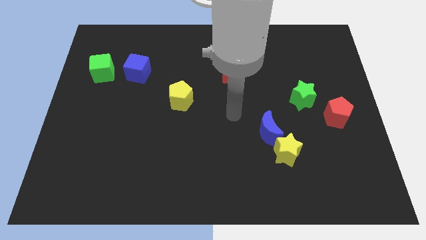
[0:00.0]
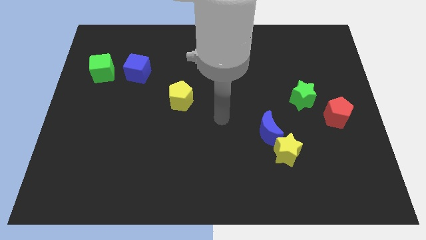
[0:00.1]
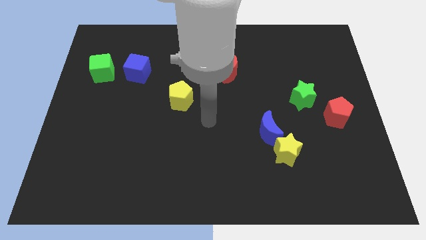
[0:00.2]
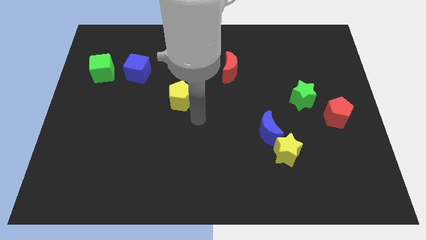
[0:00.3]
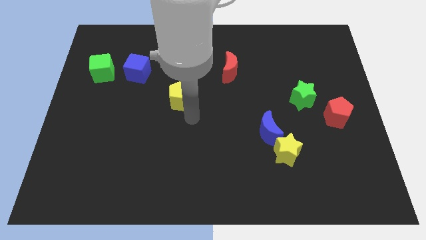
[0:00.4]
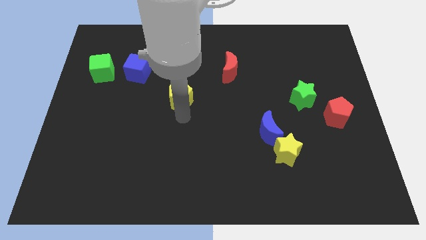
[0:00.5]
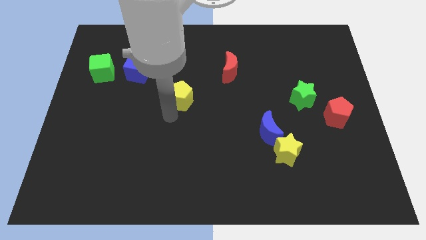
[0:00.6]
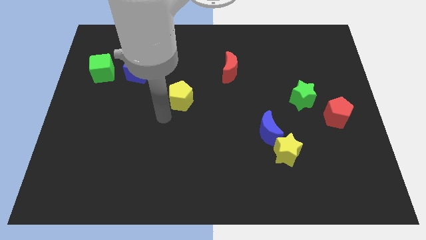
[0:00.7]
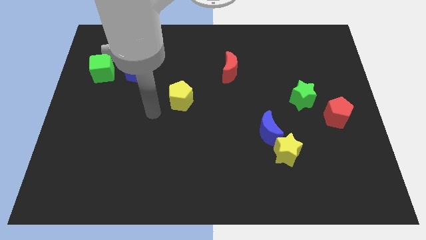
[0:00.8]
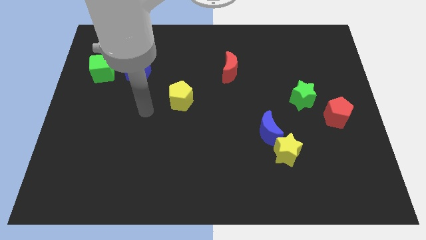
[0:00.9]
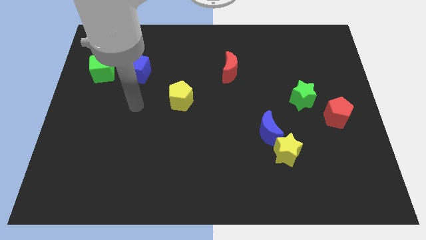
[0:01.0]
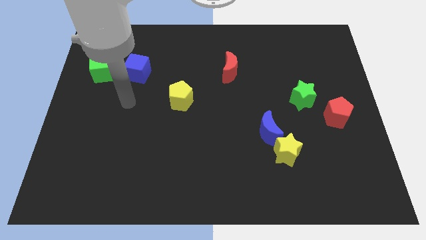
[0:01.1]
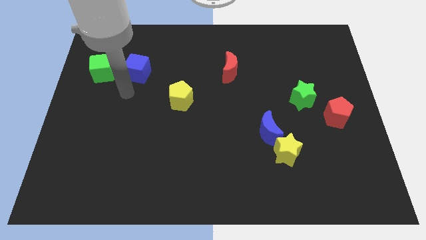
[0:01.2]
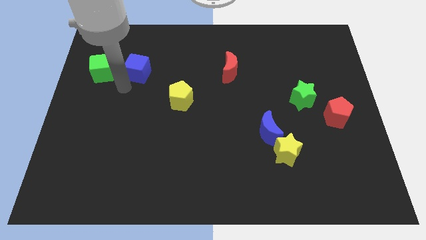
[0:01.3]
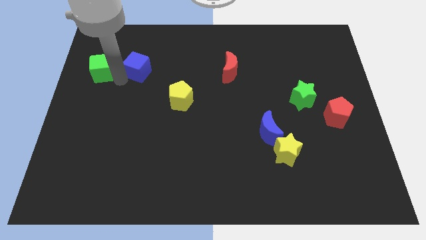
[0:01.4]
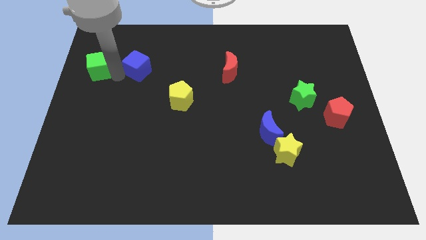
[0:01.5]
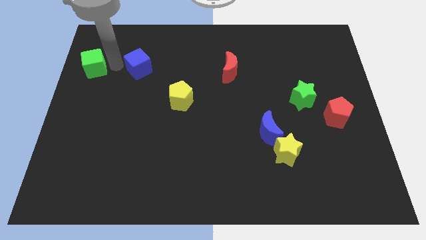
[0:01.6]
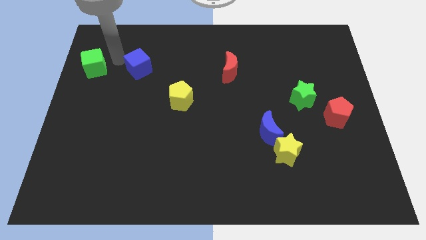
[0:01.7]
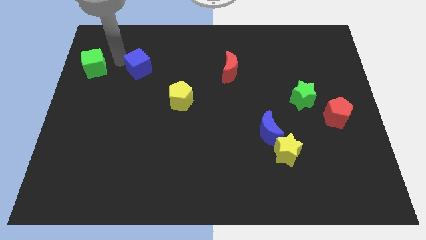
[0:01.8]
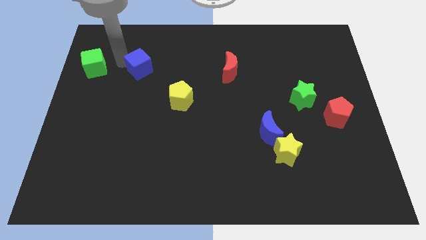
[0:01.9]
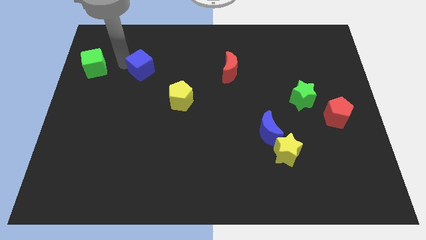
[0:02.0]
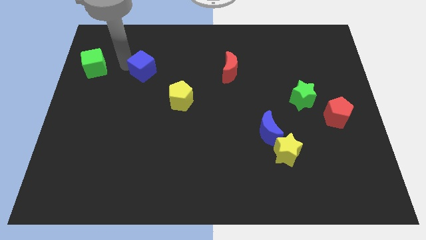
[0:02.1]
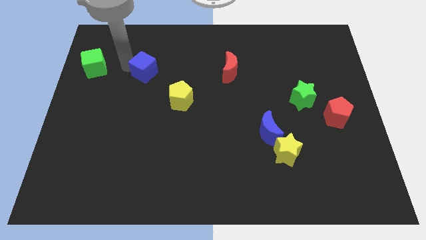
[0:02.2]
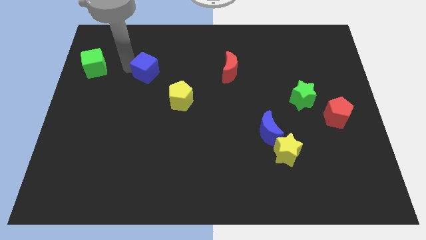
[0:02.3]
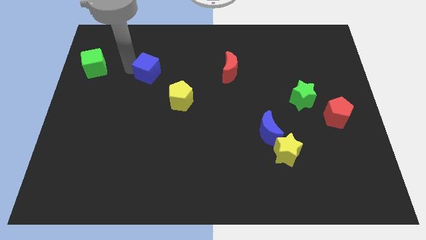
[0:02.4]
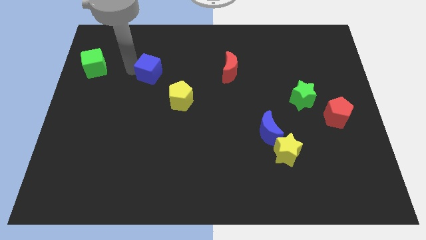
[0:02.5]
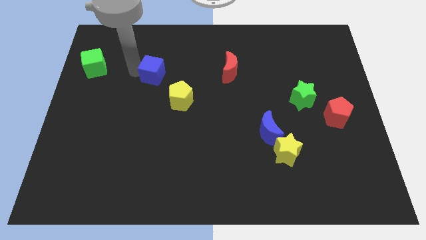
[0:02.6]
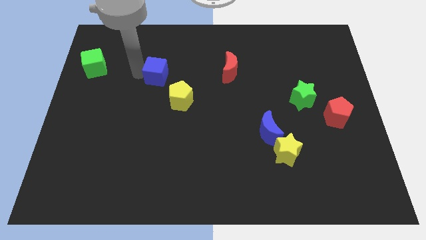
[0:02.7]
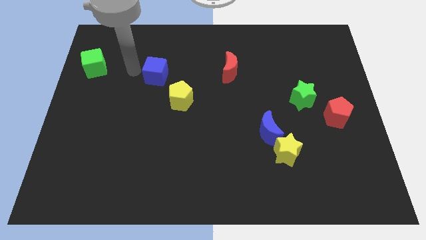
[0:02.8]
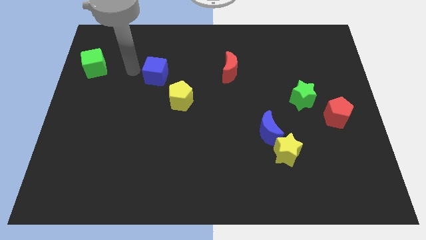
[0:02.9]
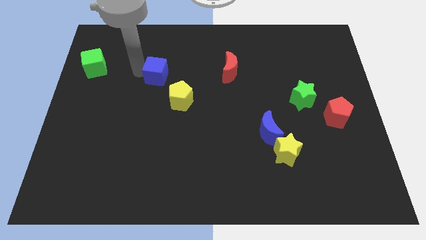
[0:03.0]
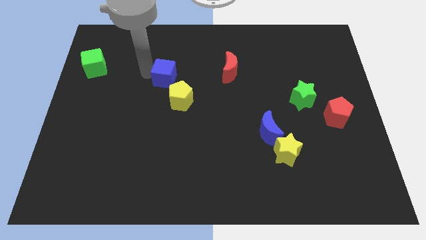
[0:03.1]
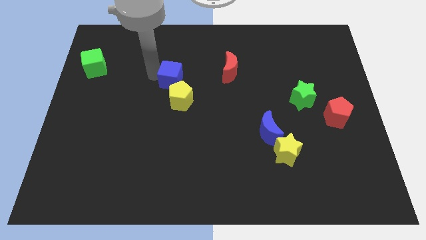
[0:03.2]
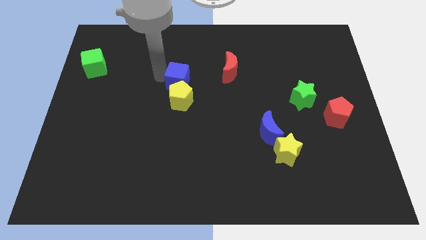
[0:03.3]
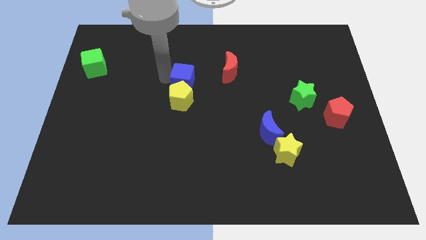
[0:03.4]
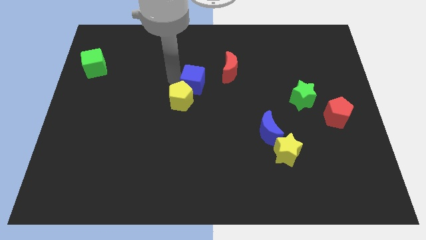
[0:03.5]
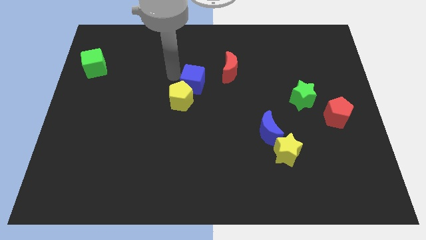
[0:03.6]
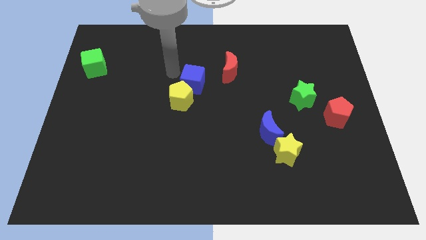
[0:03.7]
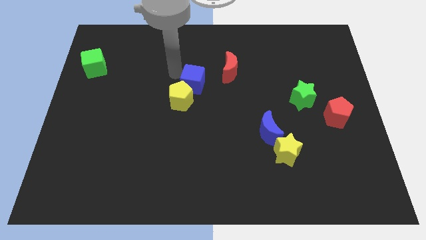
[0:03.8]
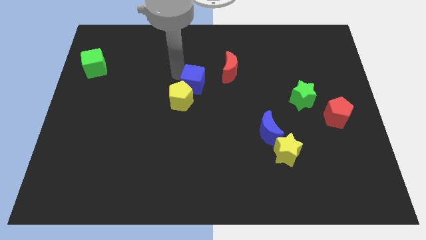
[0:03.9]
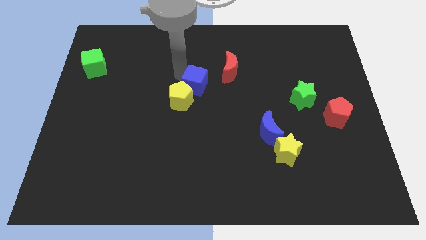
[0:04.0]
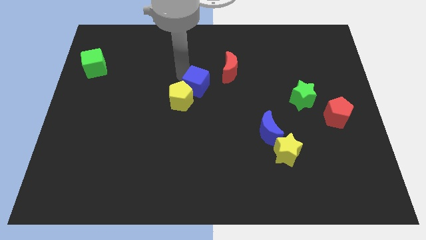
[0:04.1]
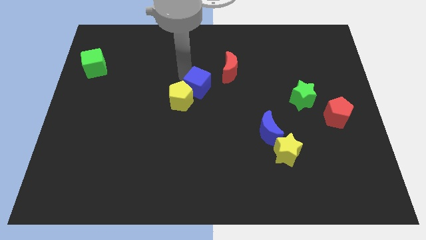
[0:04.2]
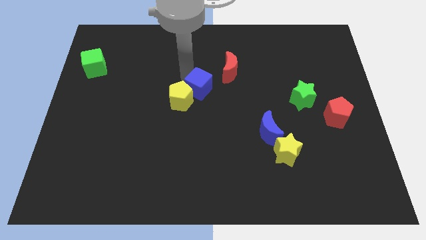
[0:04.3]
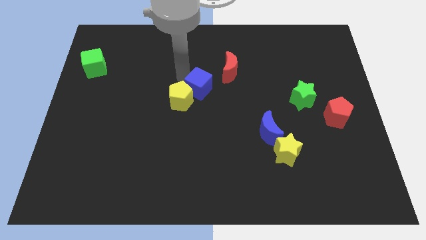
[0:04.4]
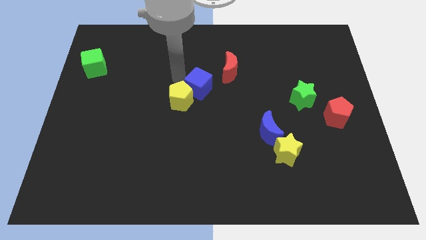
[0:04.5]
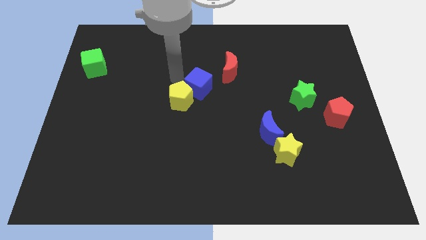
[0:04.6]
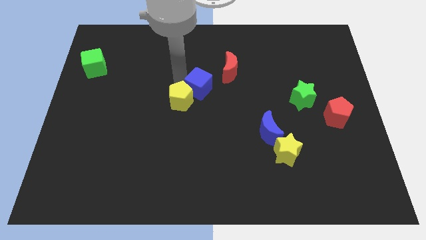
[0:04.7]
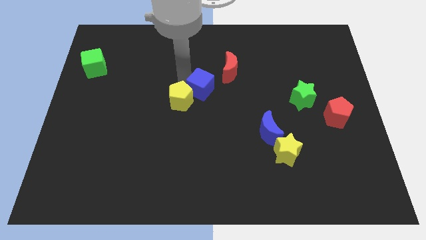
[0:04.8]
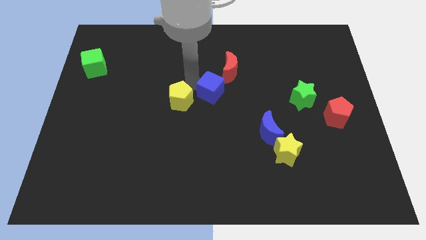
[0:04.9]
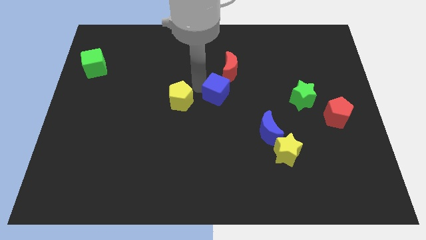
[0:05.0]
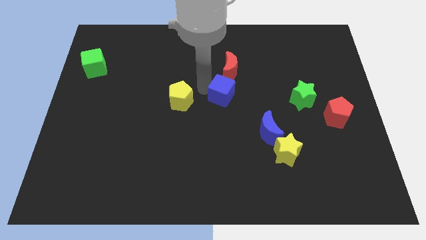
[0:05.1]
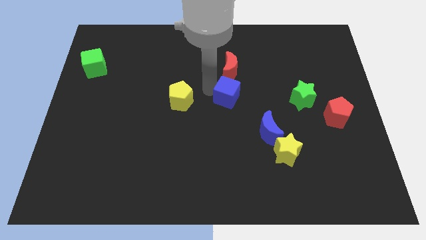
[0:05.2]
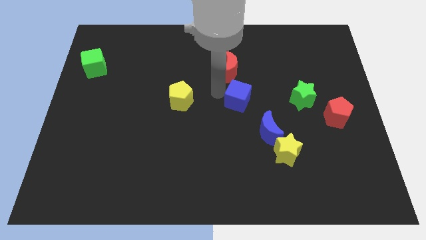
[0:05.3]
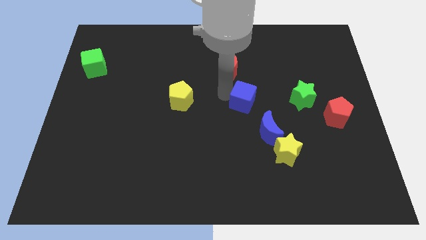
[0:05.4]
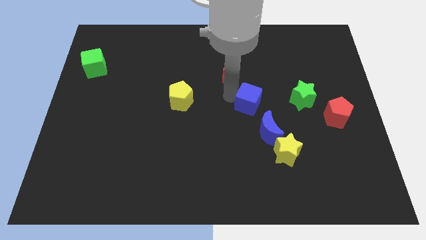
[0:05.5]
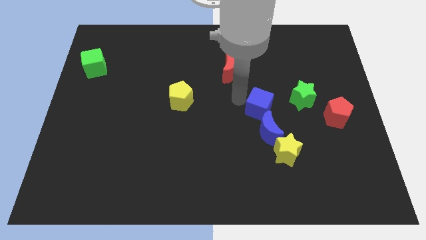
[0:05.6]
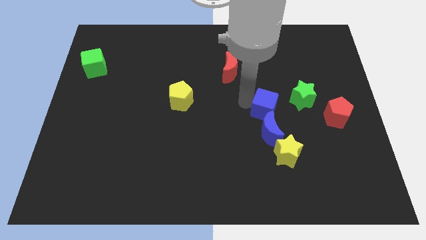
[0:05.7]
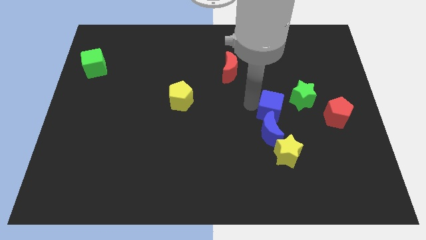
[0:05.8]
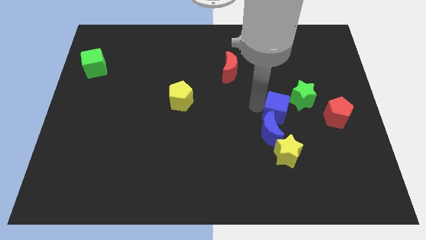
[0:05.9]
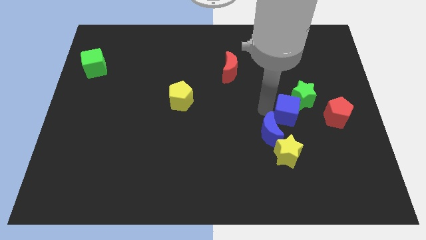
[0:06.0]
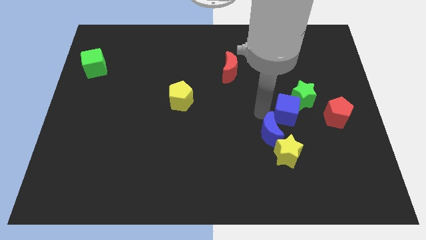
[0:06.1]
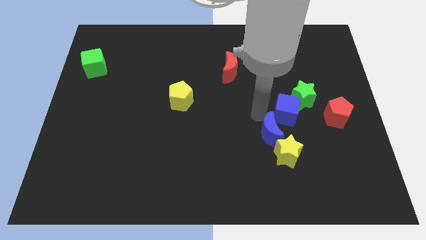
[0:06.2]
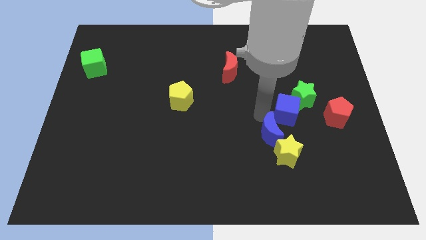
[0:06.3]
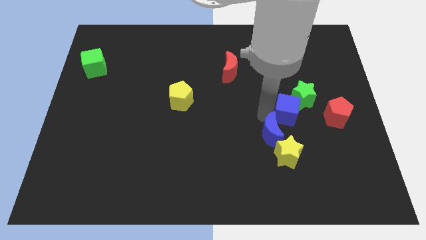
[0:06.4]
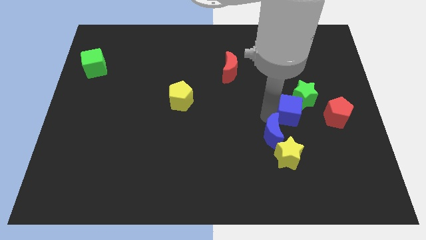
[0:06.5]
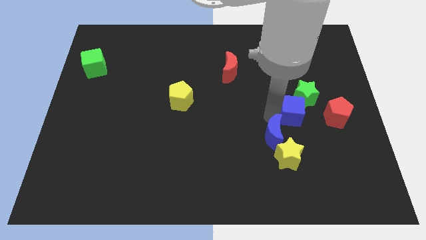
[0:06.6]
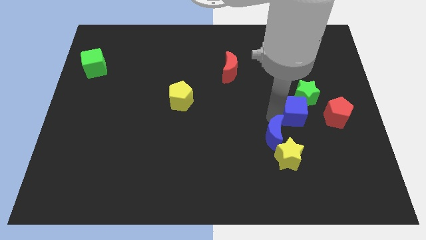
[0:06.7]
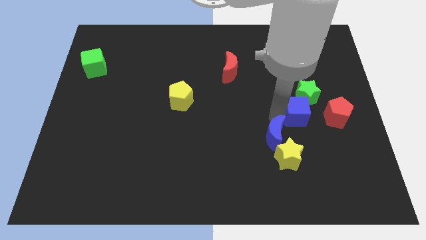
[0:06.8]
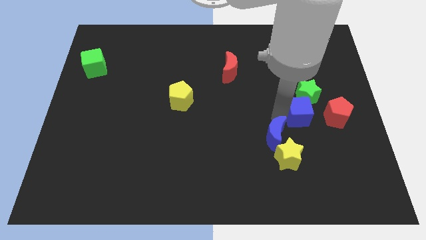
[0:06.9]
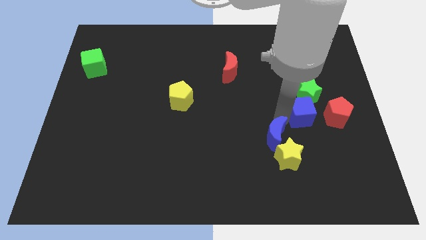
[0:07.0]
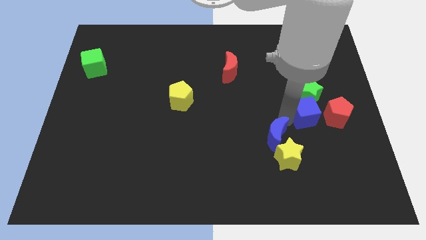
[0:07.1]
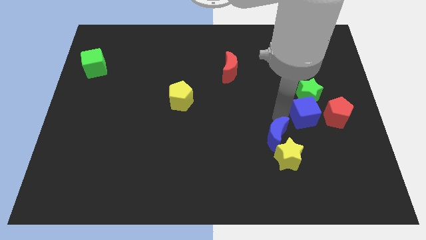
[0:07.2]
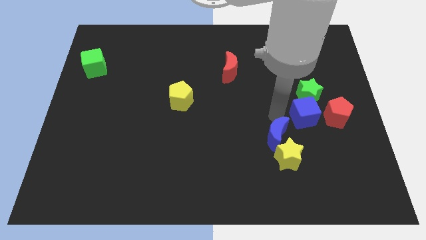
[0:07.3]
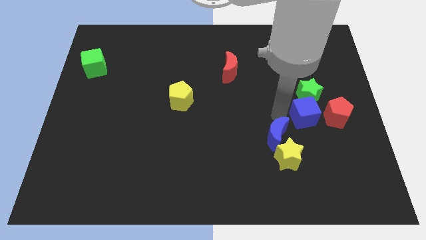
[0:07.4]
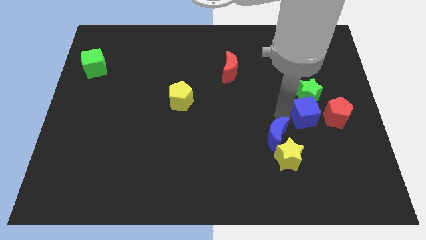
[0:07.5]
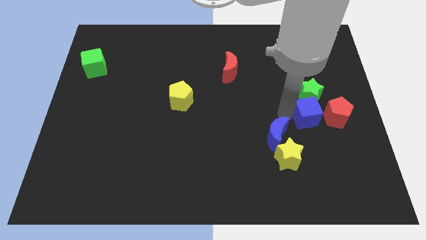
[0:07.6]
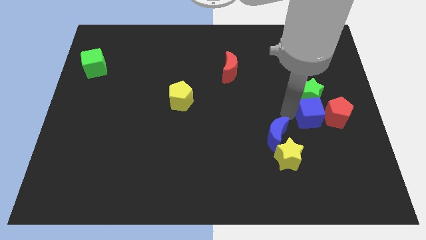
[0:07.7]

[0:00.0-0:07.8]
move the blue cube close to the red pentagon

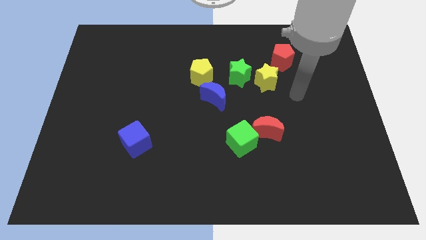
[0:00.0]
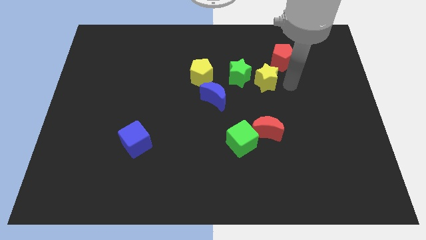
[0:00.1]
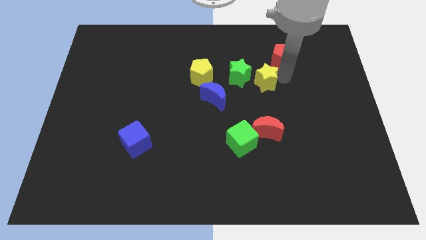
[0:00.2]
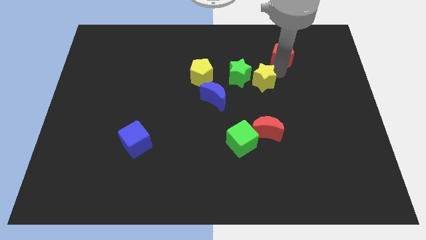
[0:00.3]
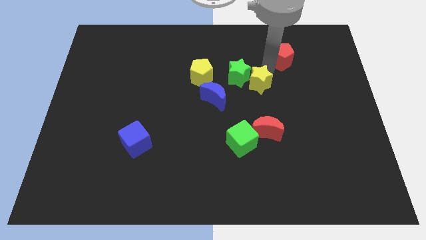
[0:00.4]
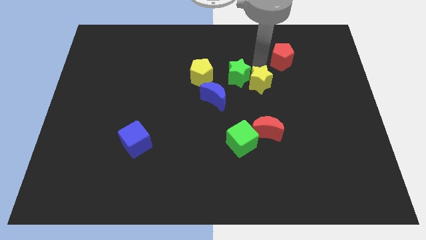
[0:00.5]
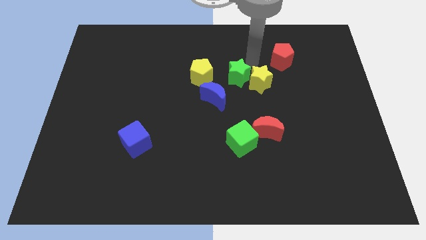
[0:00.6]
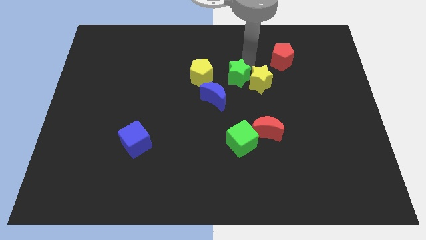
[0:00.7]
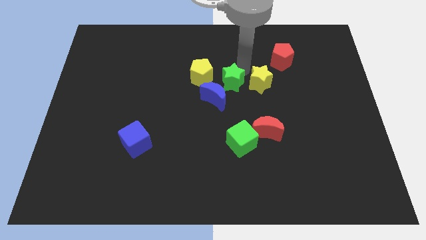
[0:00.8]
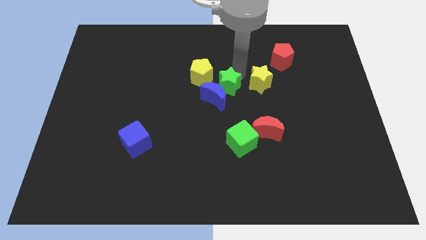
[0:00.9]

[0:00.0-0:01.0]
slide the green star close to the blue moon
